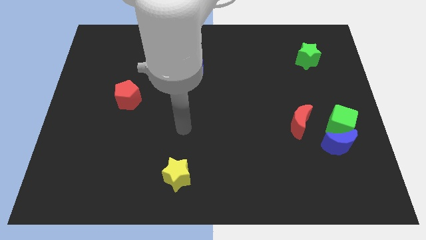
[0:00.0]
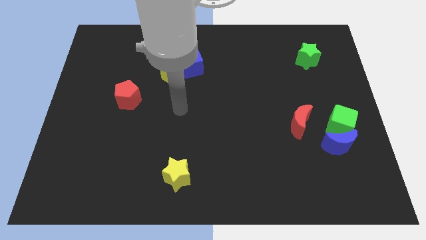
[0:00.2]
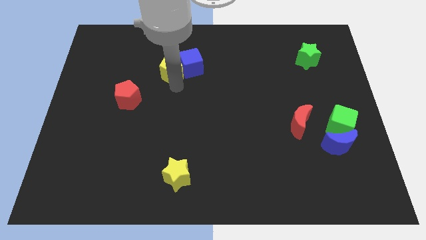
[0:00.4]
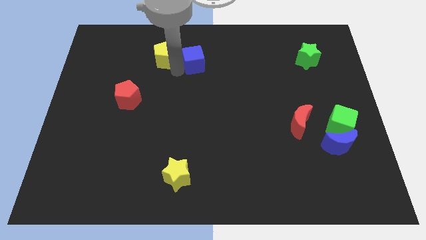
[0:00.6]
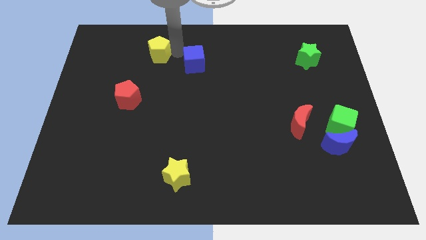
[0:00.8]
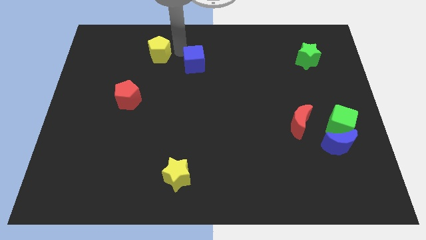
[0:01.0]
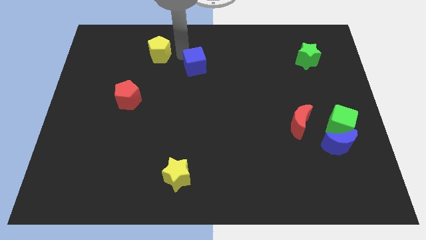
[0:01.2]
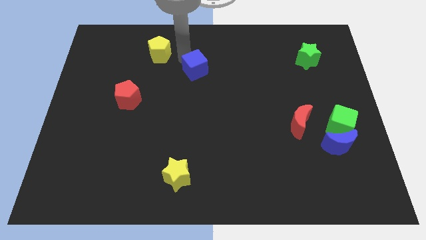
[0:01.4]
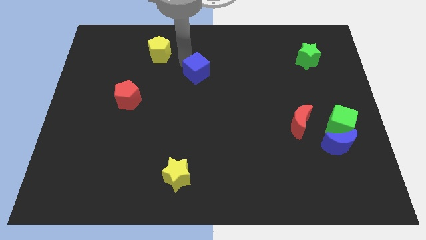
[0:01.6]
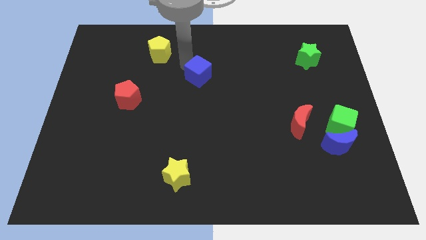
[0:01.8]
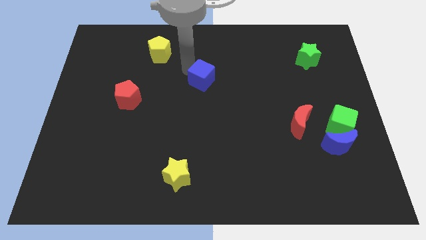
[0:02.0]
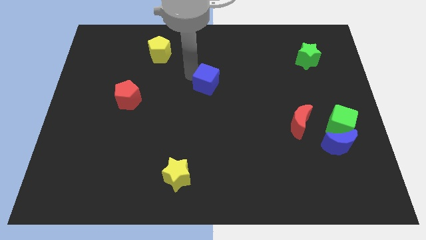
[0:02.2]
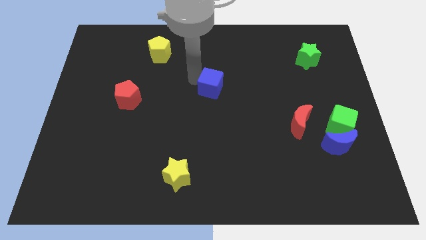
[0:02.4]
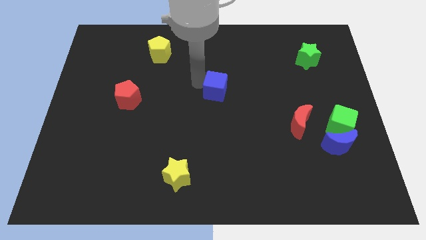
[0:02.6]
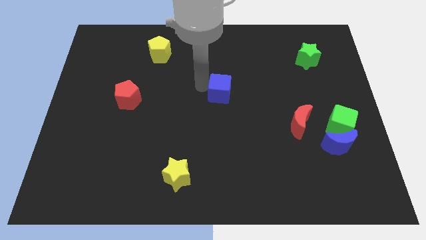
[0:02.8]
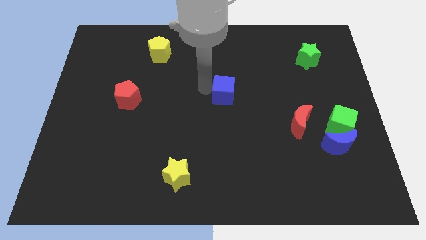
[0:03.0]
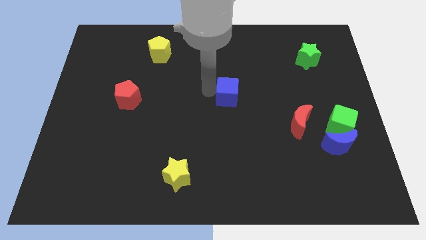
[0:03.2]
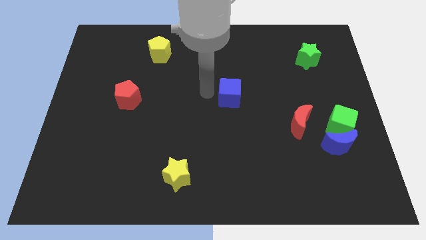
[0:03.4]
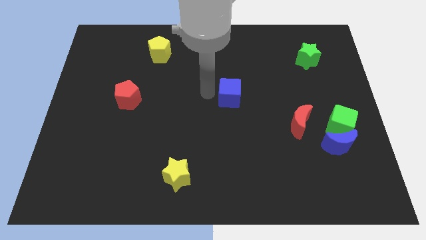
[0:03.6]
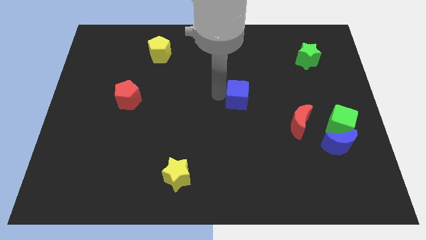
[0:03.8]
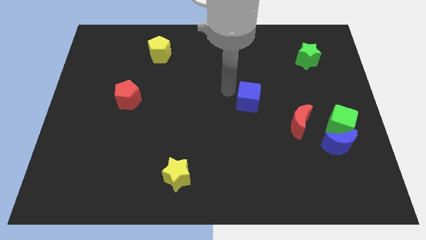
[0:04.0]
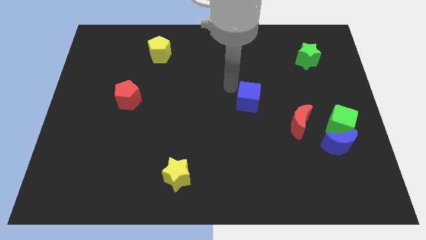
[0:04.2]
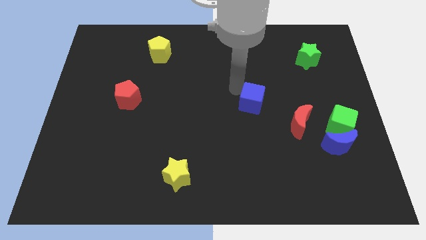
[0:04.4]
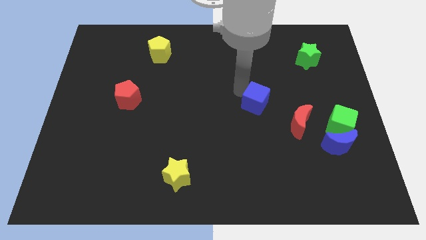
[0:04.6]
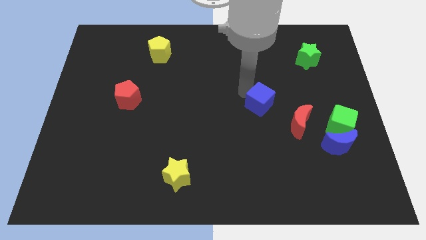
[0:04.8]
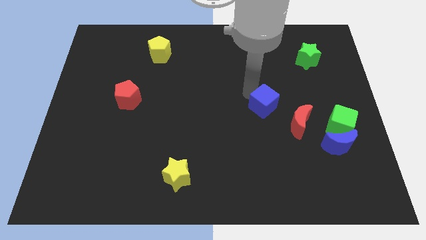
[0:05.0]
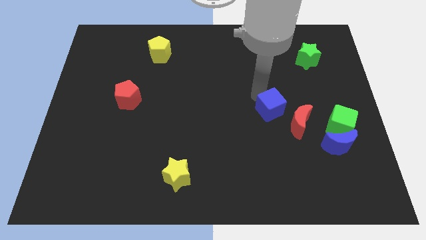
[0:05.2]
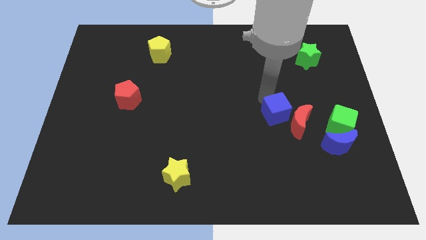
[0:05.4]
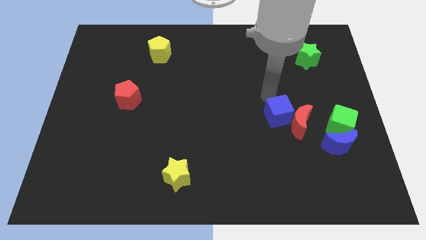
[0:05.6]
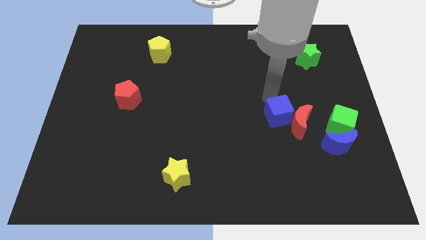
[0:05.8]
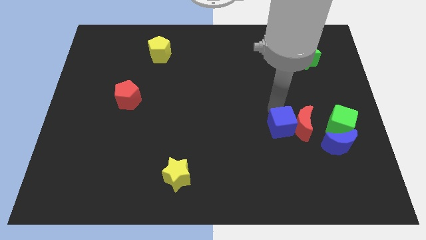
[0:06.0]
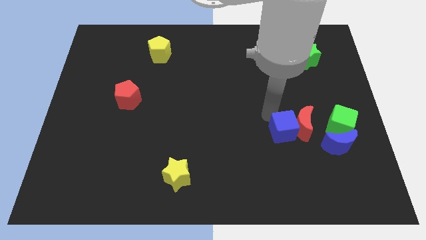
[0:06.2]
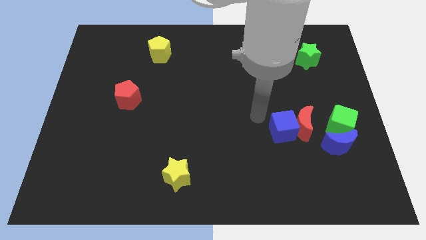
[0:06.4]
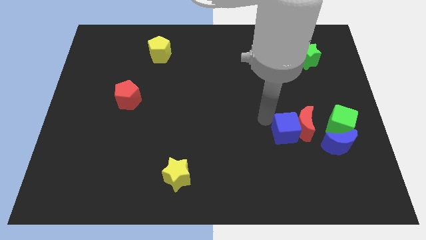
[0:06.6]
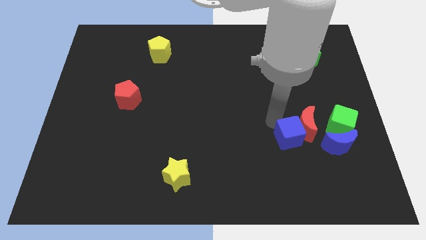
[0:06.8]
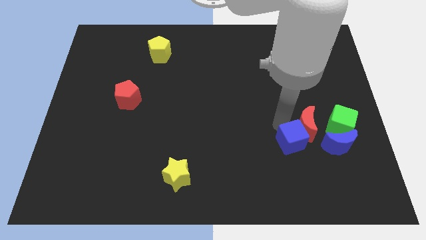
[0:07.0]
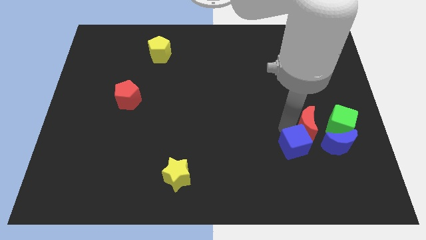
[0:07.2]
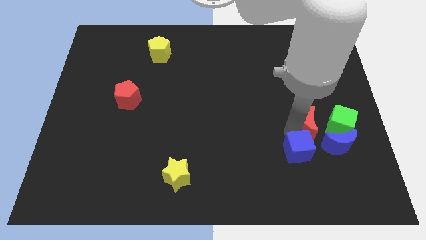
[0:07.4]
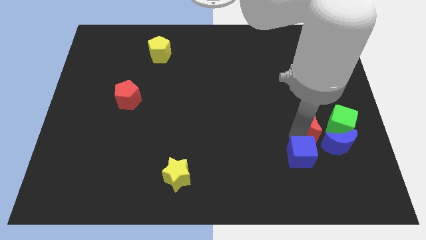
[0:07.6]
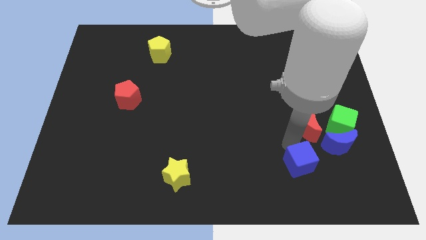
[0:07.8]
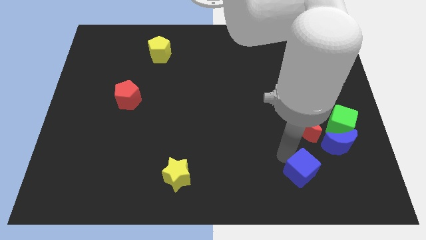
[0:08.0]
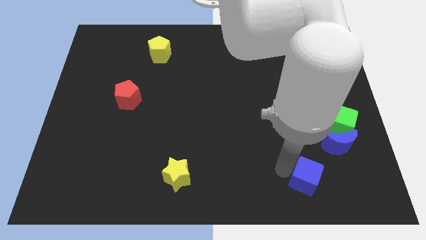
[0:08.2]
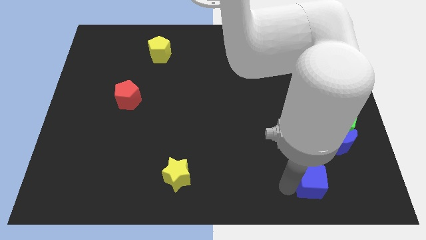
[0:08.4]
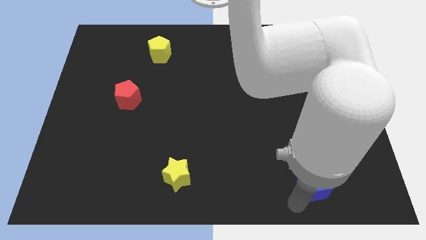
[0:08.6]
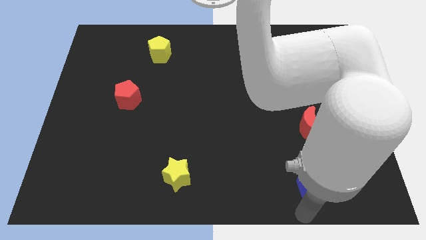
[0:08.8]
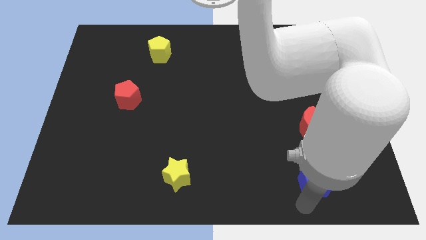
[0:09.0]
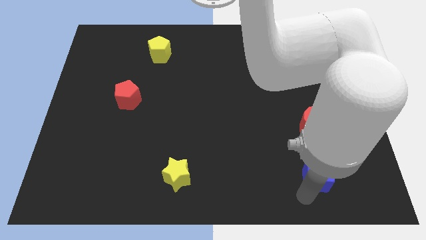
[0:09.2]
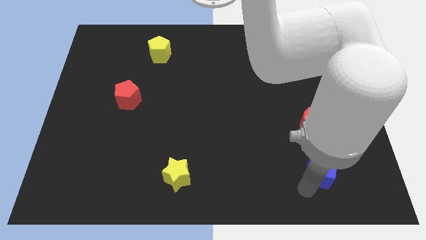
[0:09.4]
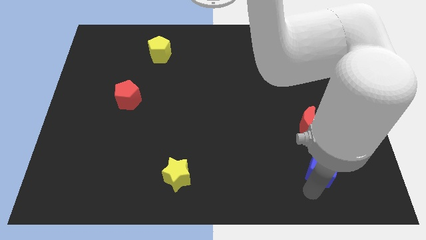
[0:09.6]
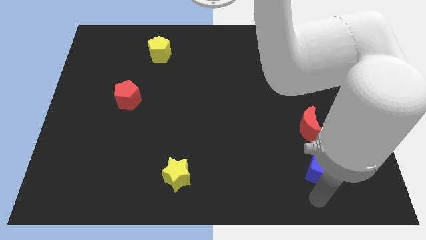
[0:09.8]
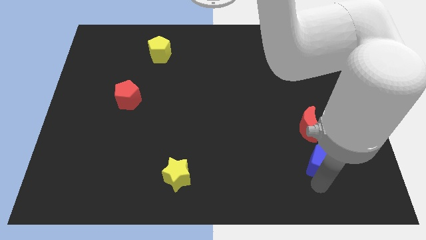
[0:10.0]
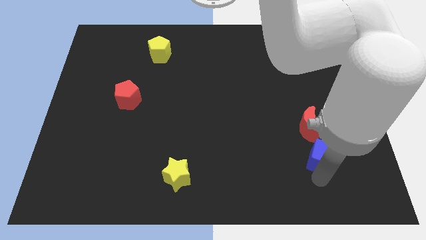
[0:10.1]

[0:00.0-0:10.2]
move the blue cube towards the blue moon

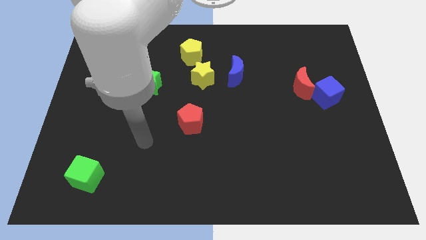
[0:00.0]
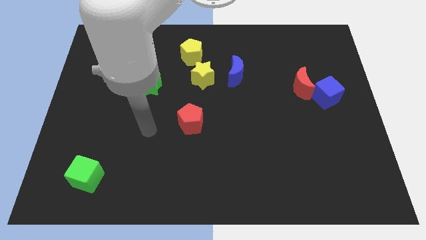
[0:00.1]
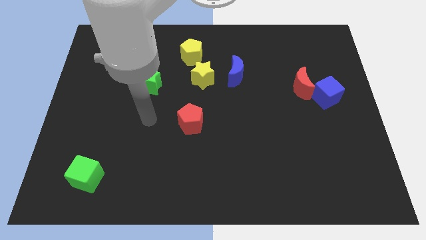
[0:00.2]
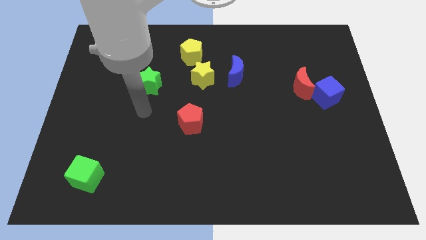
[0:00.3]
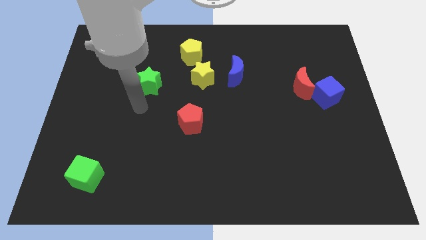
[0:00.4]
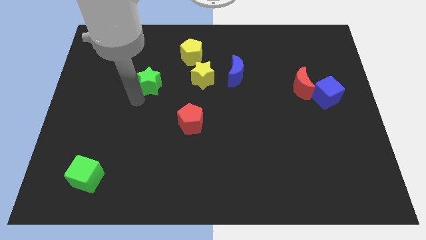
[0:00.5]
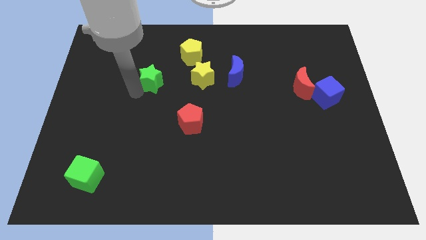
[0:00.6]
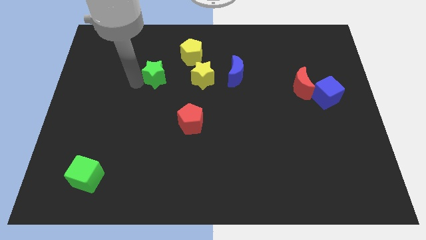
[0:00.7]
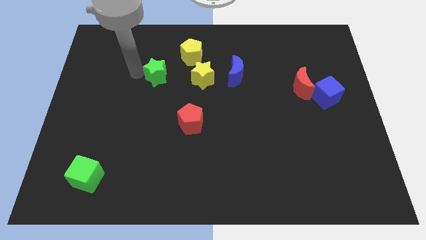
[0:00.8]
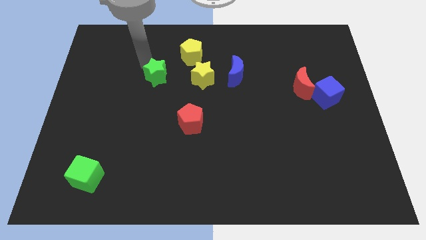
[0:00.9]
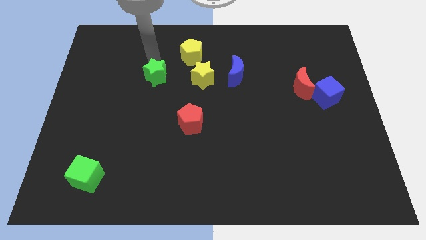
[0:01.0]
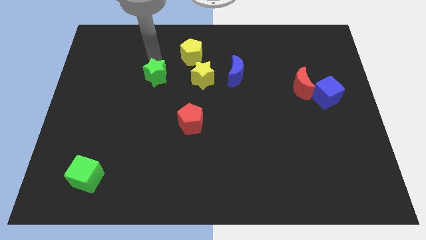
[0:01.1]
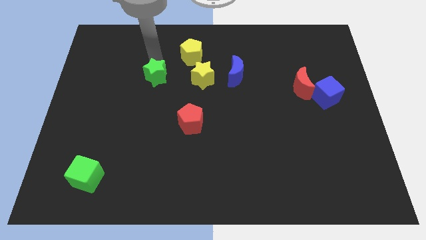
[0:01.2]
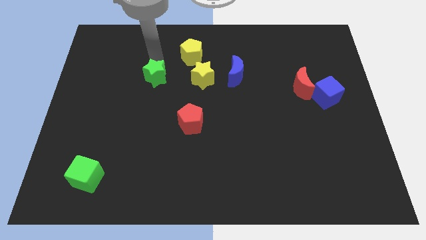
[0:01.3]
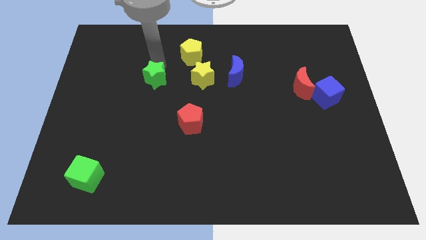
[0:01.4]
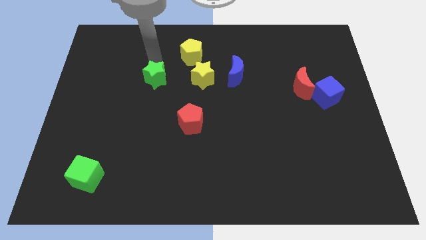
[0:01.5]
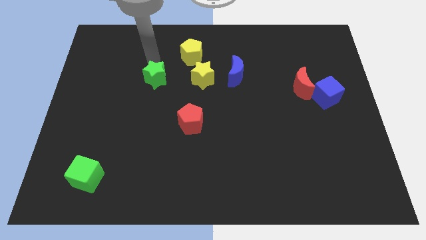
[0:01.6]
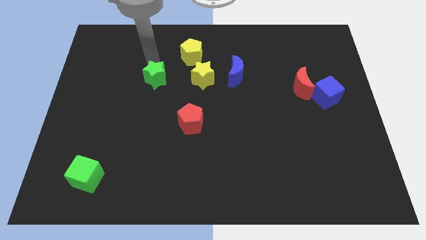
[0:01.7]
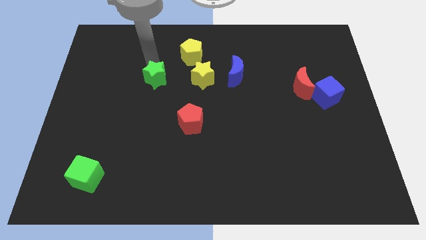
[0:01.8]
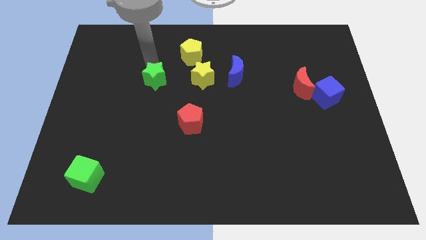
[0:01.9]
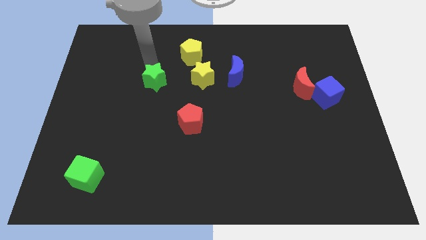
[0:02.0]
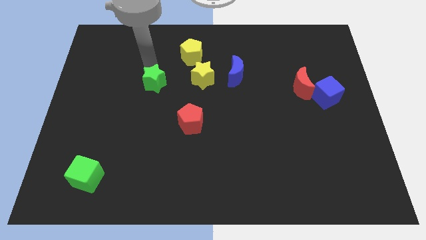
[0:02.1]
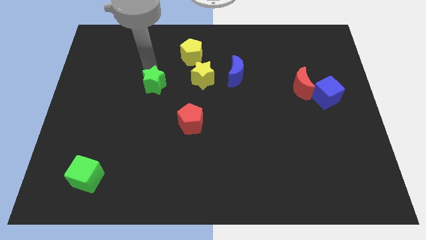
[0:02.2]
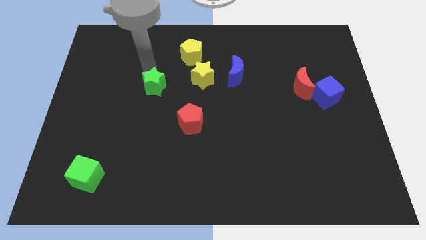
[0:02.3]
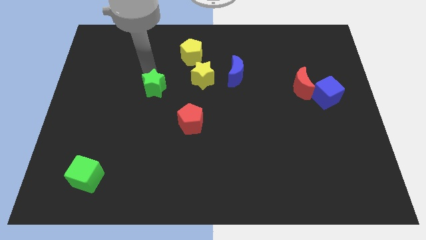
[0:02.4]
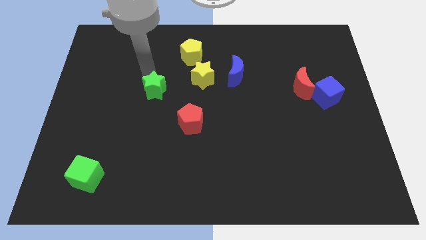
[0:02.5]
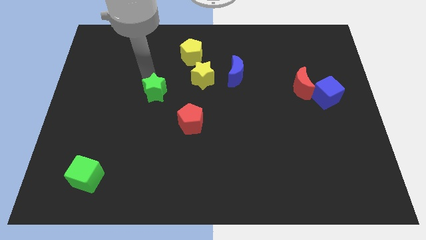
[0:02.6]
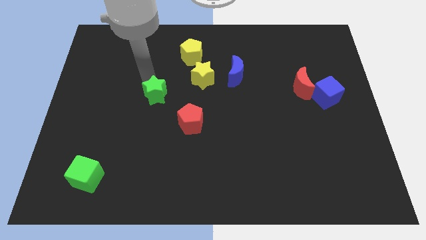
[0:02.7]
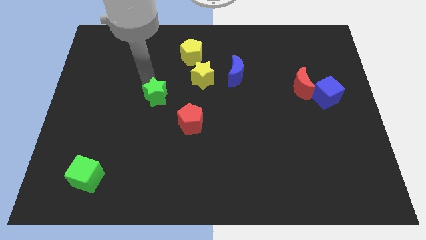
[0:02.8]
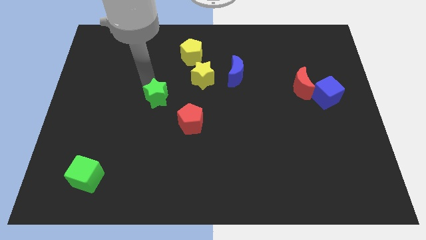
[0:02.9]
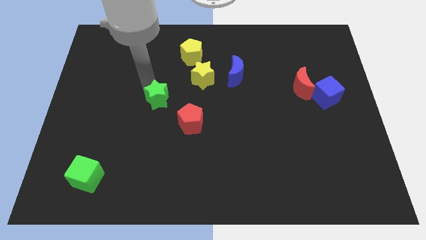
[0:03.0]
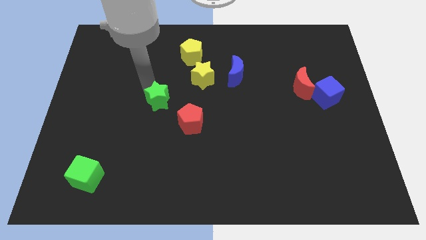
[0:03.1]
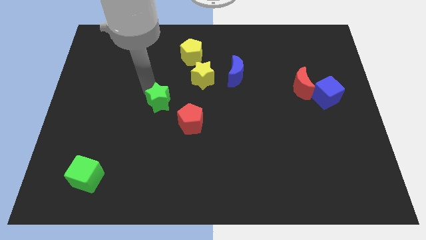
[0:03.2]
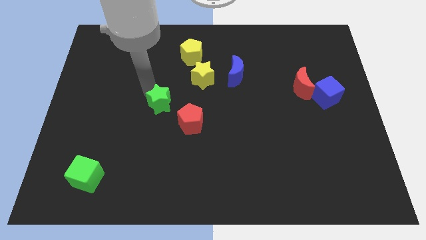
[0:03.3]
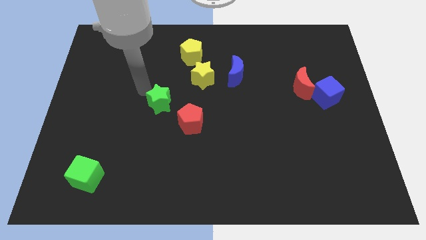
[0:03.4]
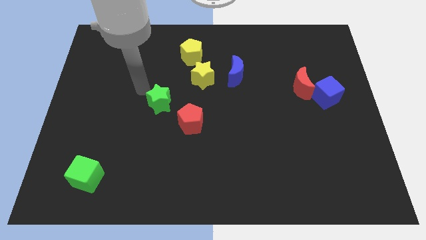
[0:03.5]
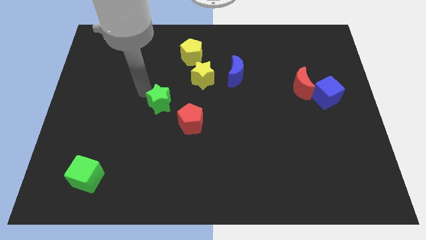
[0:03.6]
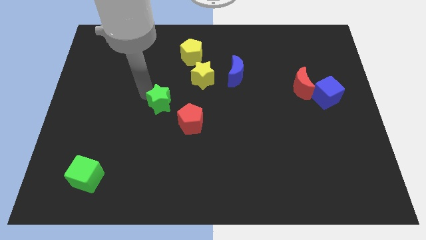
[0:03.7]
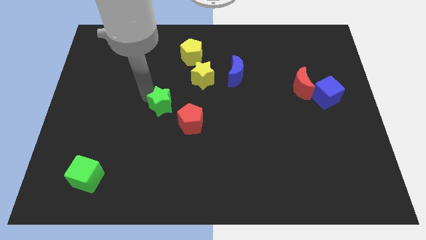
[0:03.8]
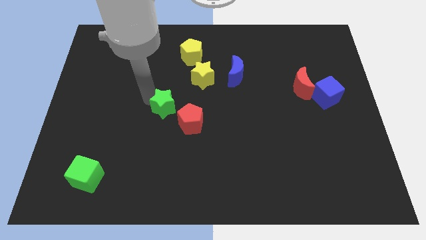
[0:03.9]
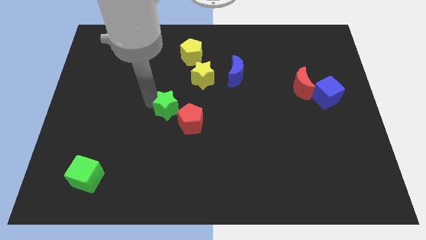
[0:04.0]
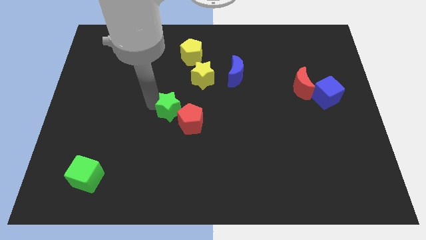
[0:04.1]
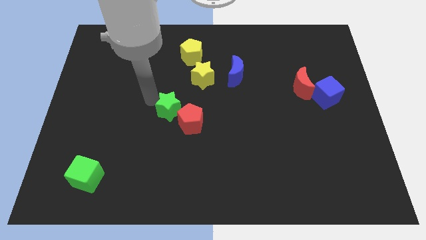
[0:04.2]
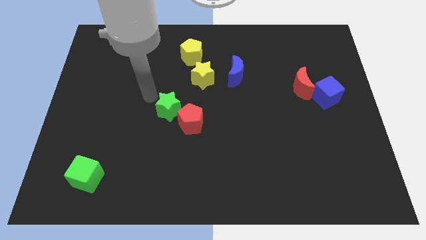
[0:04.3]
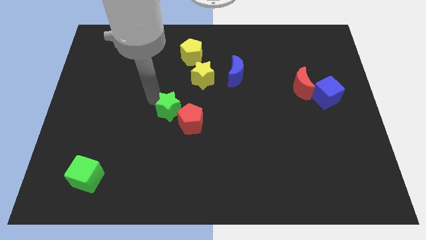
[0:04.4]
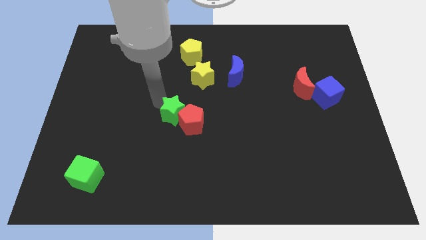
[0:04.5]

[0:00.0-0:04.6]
push the green star towards the red pentagon
